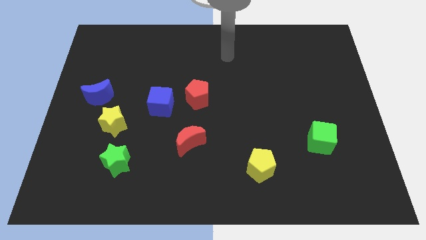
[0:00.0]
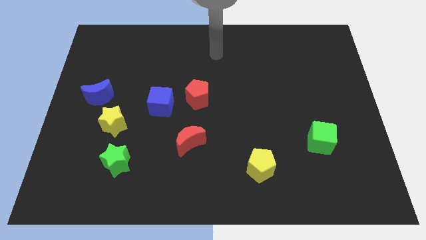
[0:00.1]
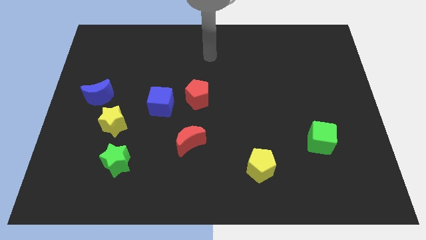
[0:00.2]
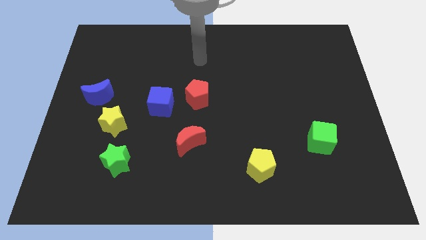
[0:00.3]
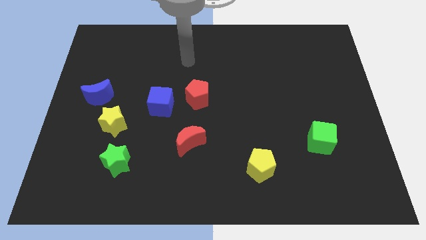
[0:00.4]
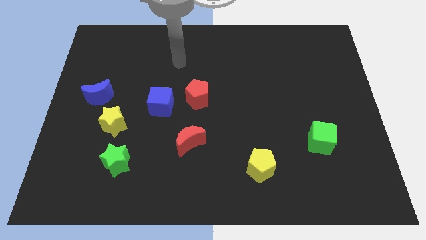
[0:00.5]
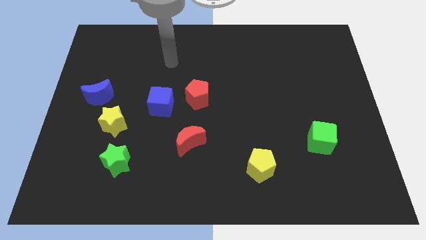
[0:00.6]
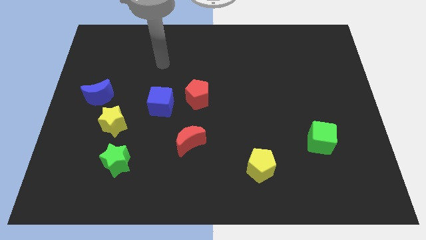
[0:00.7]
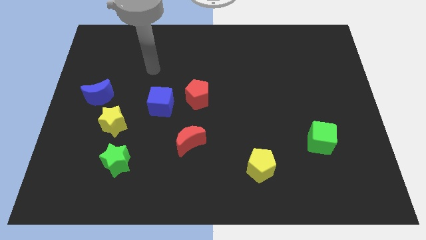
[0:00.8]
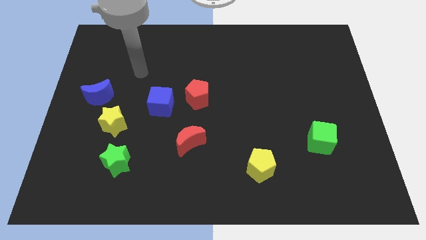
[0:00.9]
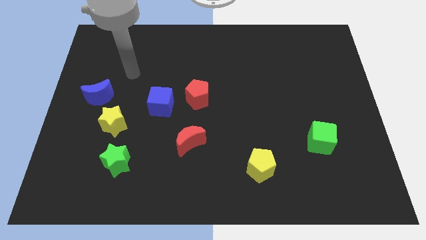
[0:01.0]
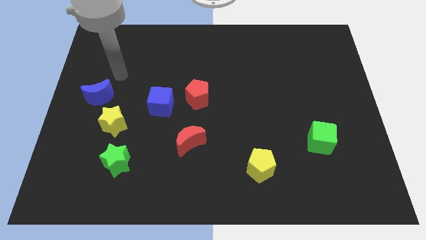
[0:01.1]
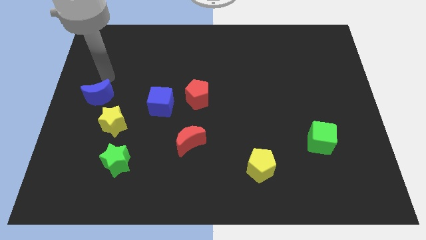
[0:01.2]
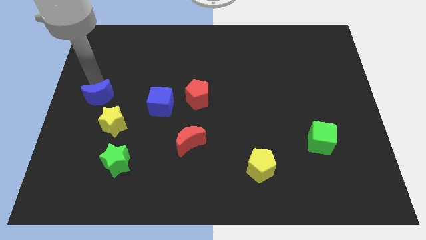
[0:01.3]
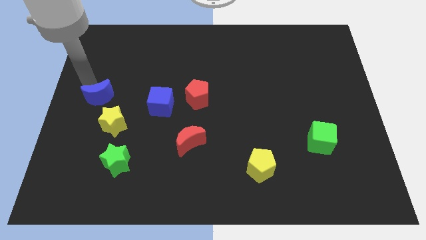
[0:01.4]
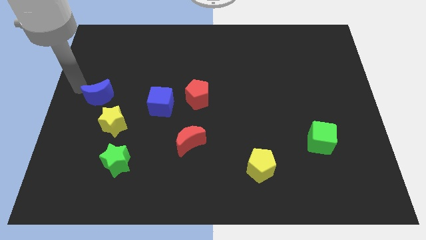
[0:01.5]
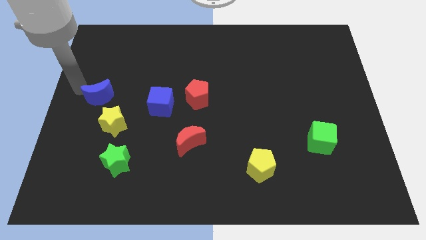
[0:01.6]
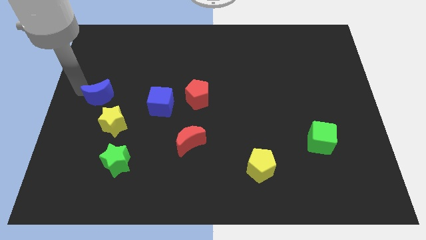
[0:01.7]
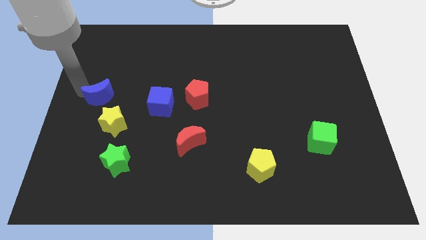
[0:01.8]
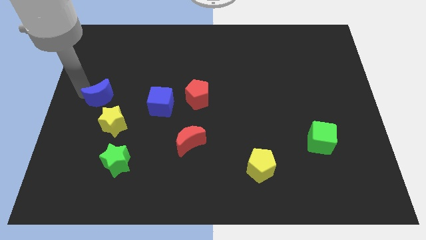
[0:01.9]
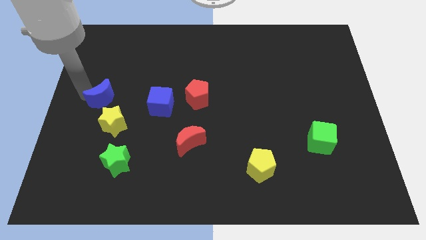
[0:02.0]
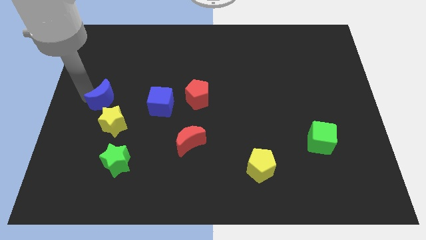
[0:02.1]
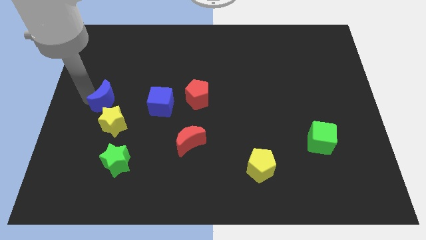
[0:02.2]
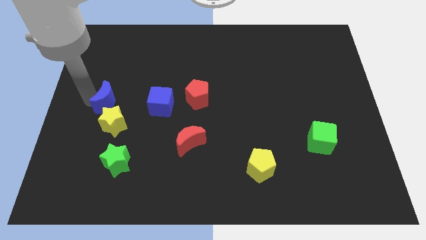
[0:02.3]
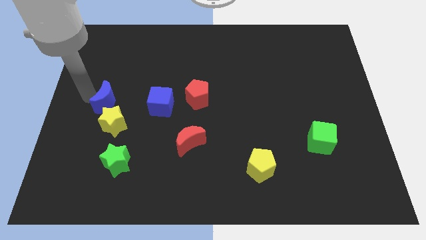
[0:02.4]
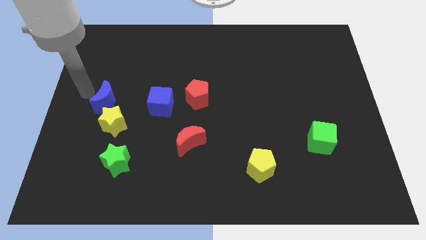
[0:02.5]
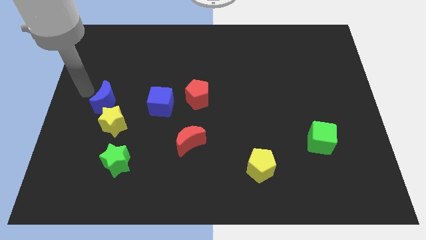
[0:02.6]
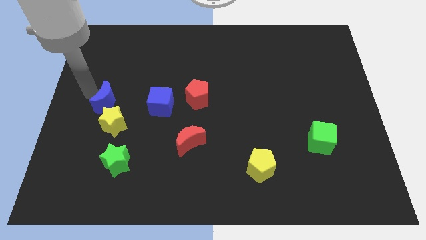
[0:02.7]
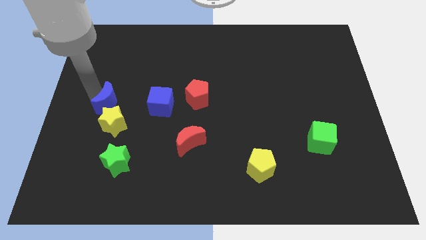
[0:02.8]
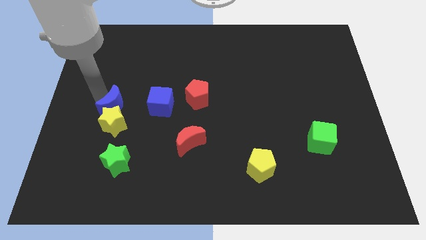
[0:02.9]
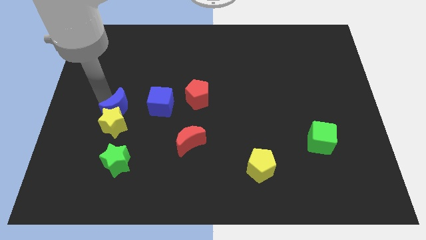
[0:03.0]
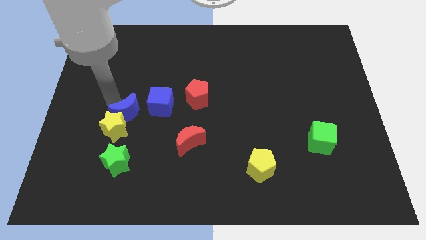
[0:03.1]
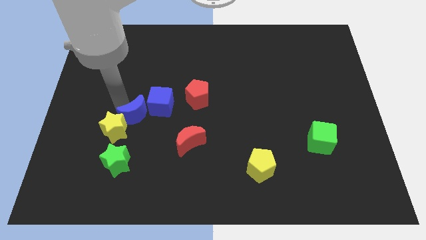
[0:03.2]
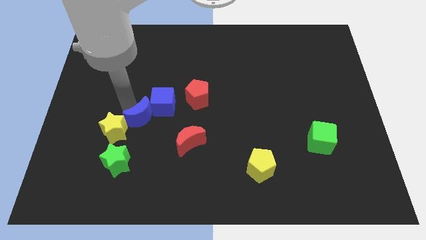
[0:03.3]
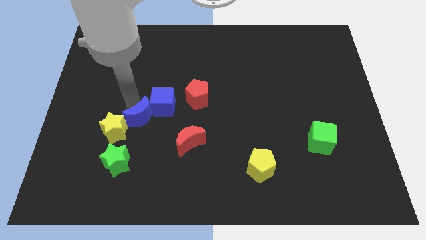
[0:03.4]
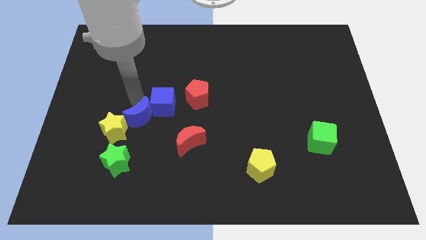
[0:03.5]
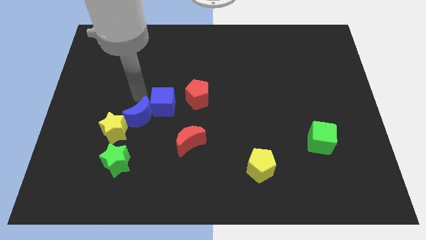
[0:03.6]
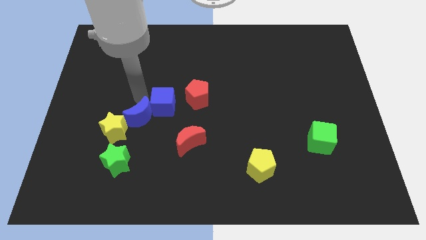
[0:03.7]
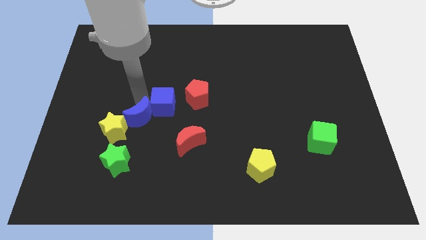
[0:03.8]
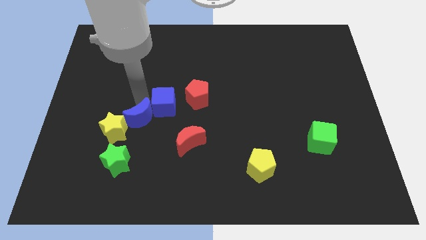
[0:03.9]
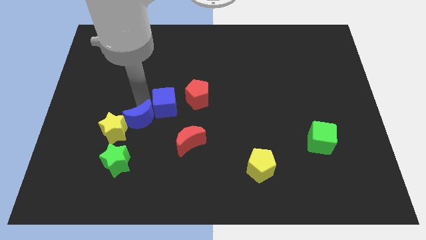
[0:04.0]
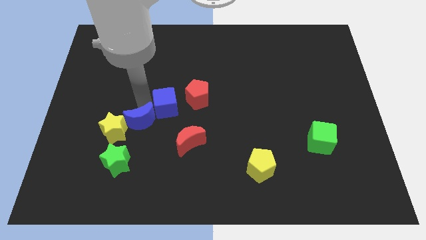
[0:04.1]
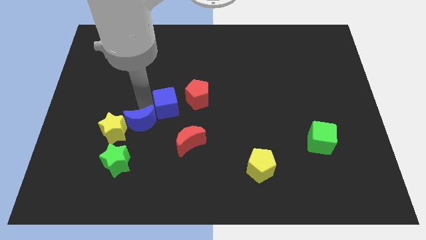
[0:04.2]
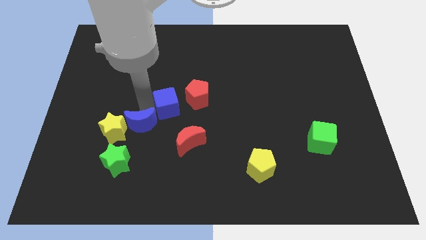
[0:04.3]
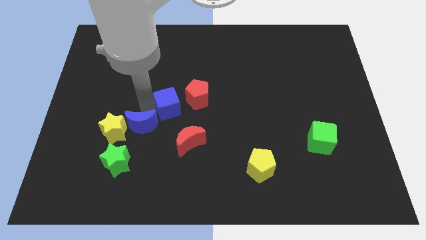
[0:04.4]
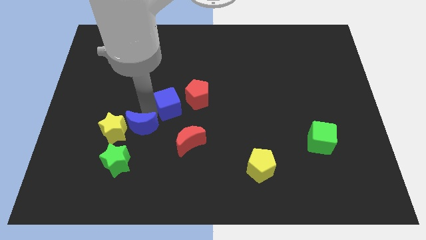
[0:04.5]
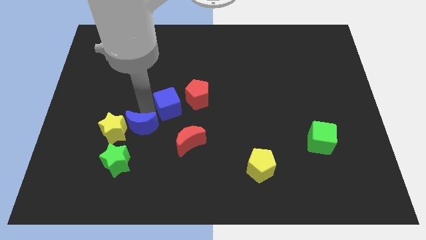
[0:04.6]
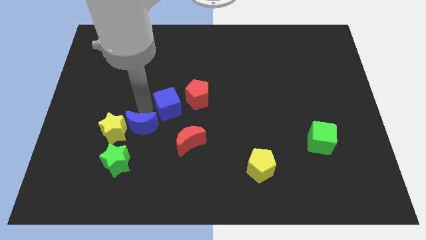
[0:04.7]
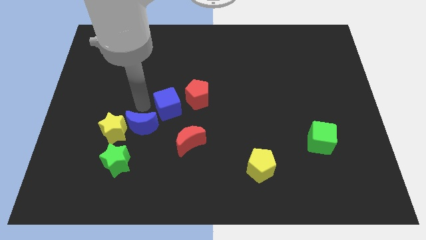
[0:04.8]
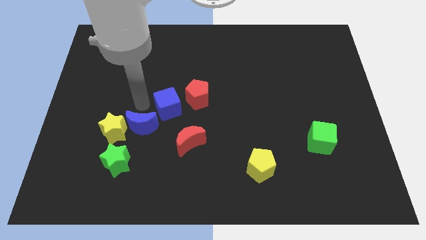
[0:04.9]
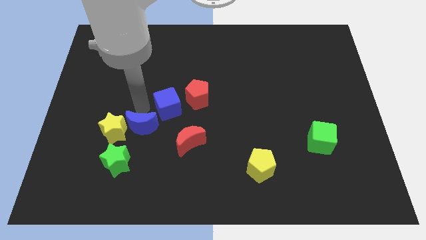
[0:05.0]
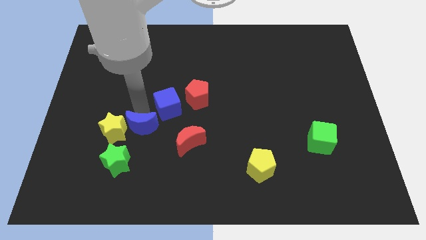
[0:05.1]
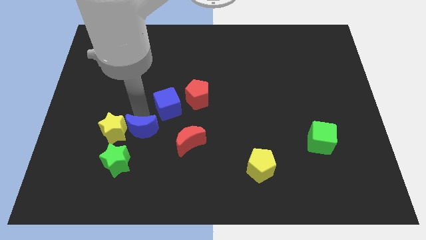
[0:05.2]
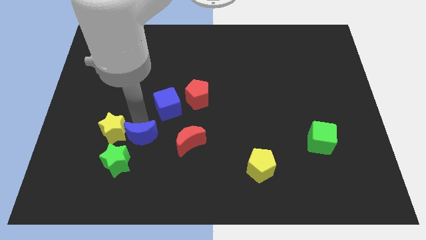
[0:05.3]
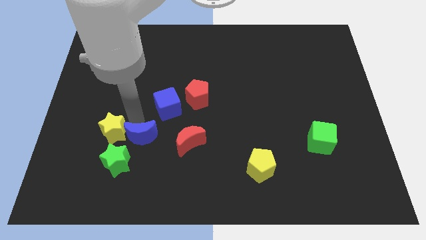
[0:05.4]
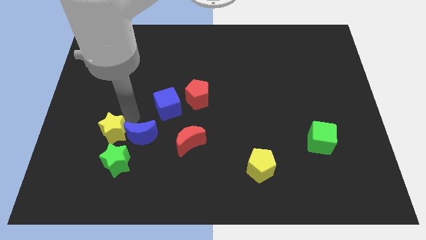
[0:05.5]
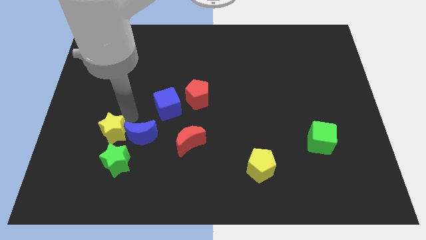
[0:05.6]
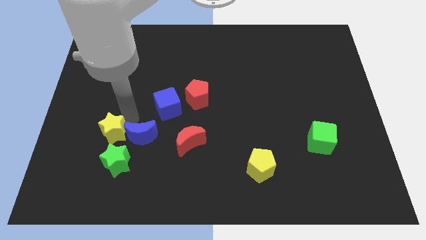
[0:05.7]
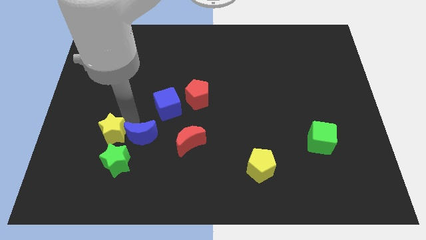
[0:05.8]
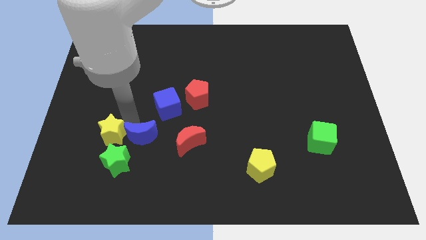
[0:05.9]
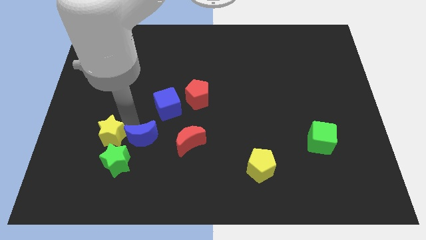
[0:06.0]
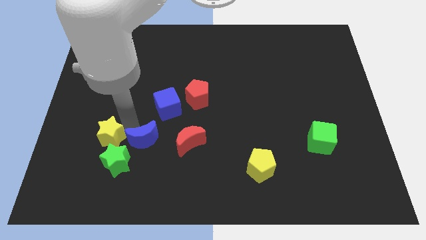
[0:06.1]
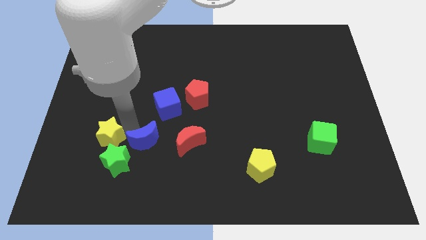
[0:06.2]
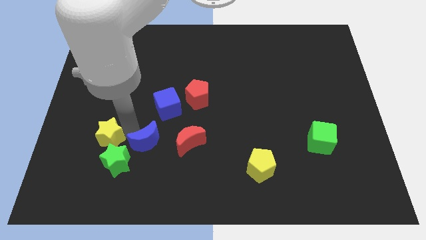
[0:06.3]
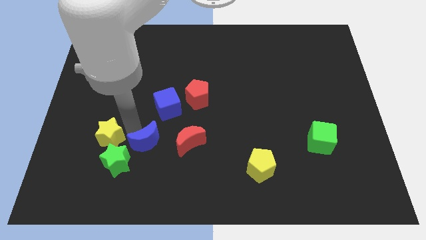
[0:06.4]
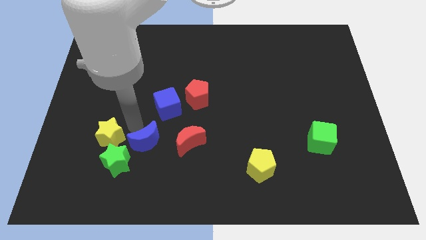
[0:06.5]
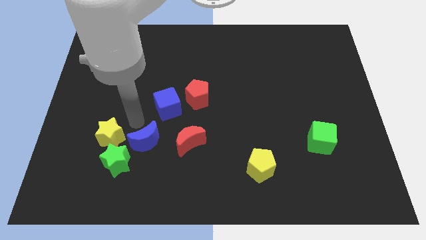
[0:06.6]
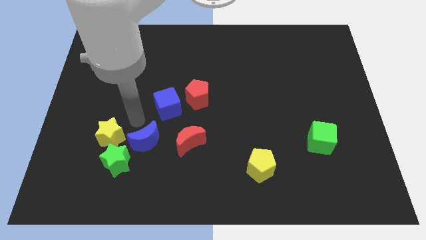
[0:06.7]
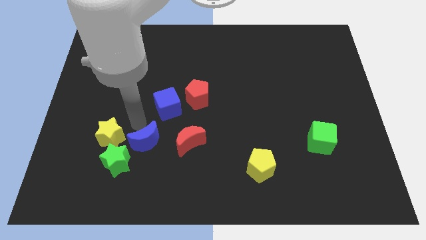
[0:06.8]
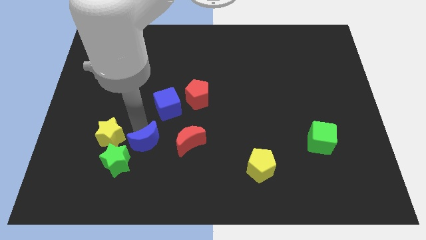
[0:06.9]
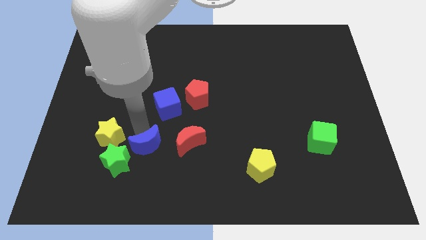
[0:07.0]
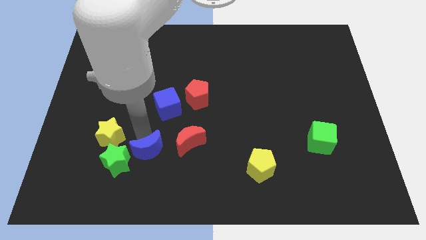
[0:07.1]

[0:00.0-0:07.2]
slide the blue moon downwards and right

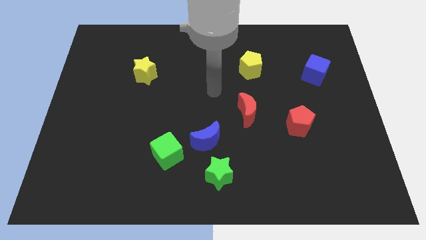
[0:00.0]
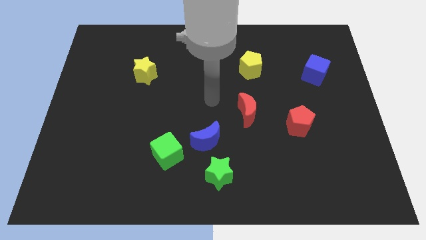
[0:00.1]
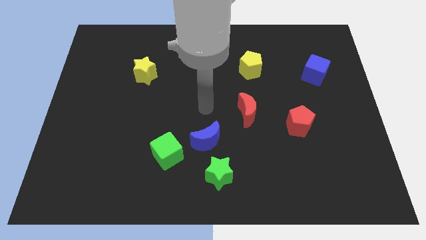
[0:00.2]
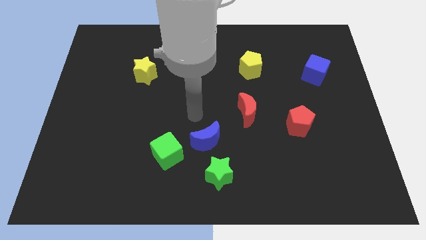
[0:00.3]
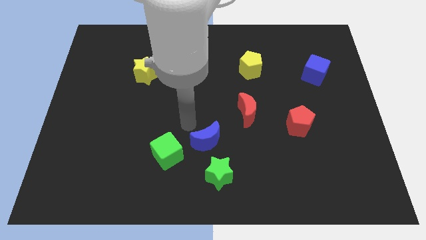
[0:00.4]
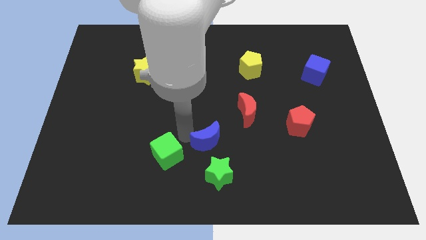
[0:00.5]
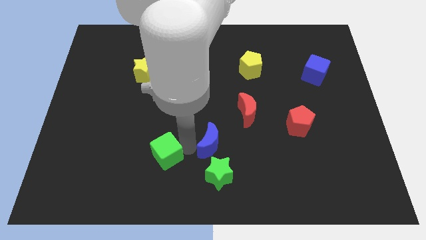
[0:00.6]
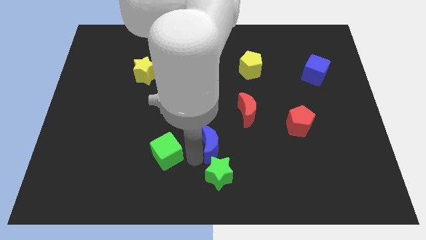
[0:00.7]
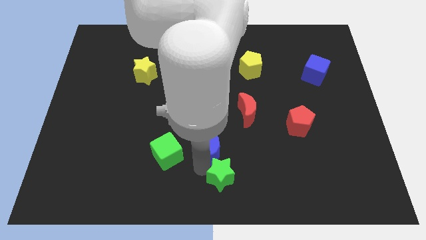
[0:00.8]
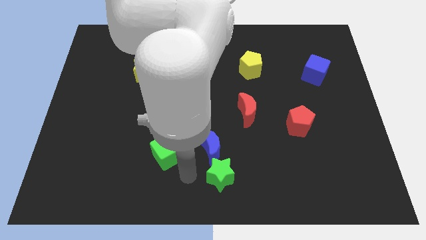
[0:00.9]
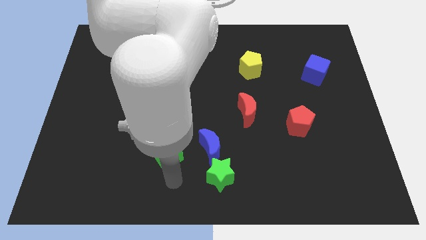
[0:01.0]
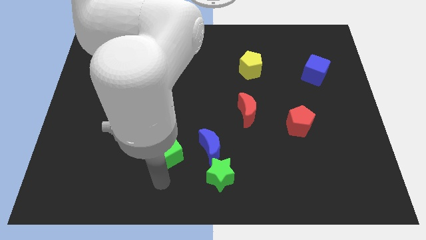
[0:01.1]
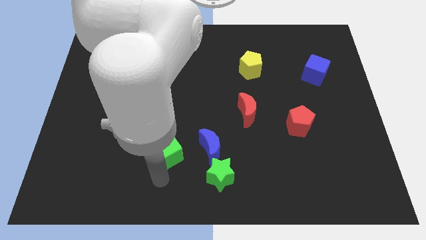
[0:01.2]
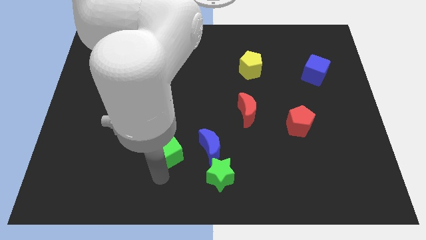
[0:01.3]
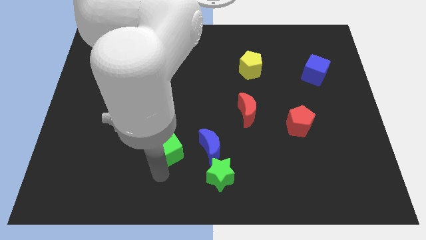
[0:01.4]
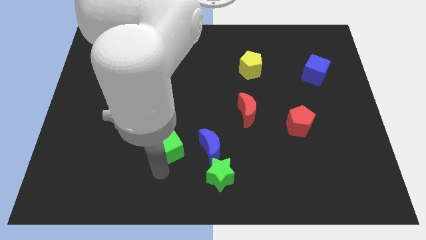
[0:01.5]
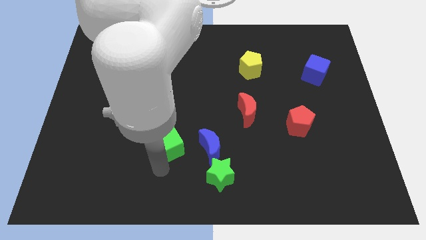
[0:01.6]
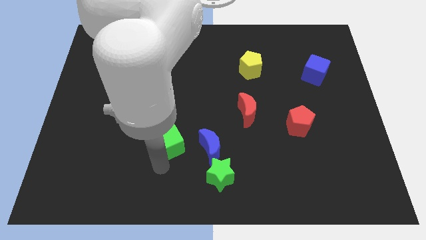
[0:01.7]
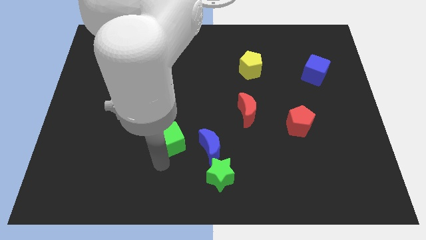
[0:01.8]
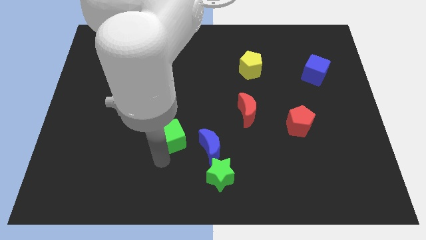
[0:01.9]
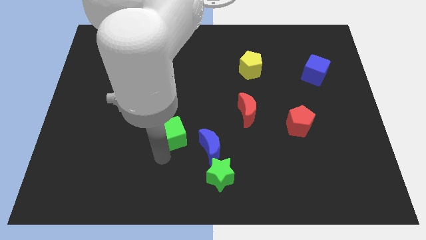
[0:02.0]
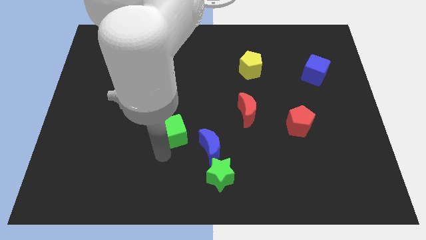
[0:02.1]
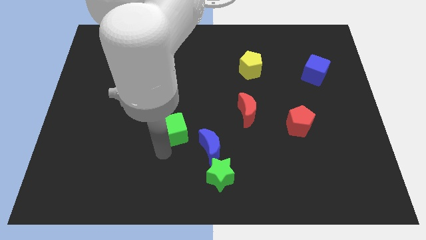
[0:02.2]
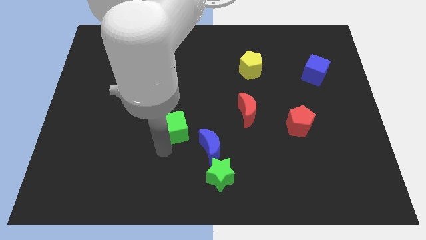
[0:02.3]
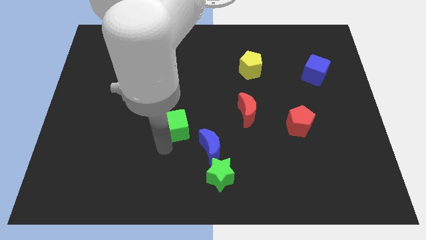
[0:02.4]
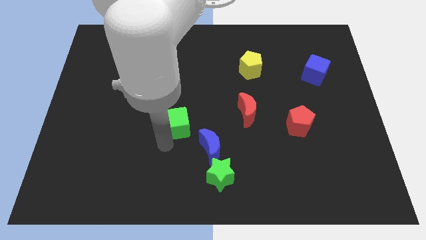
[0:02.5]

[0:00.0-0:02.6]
push the green cube upwards a bit
